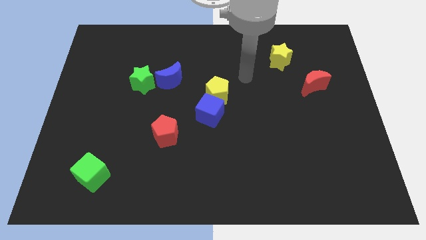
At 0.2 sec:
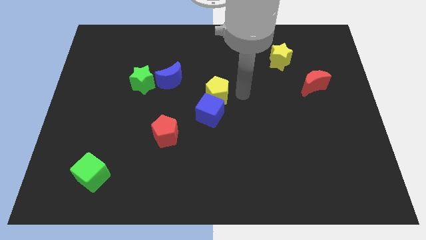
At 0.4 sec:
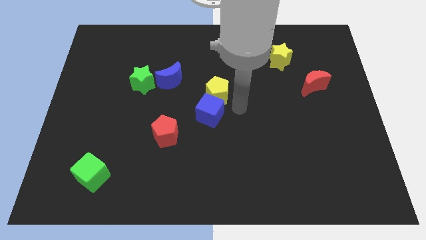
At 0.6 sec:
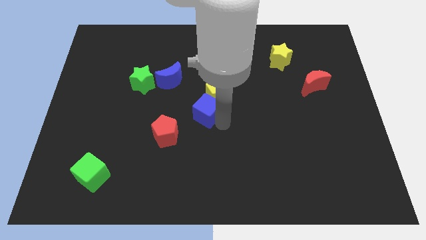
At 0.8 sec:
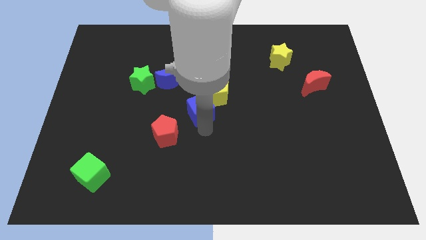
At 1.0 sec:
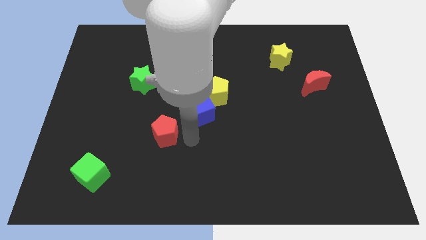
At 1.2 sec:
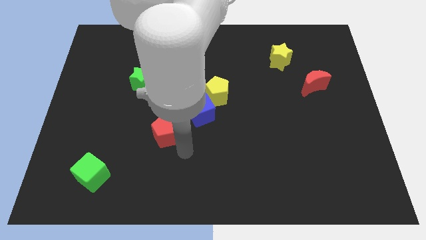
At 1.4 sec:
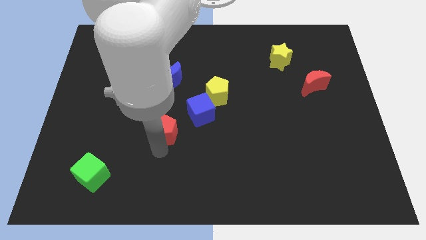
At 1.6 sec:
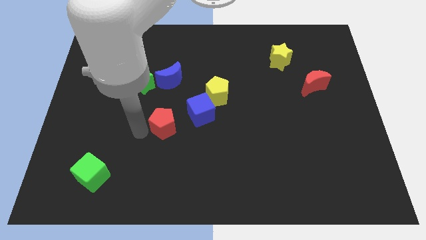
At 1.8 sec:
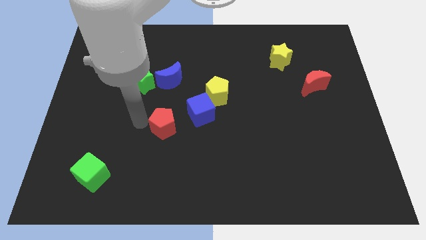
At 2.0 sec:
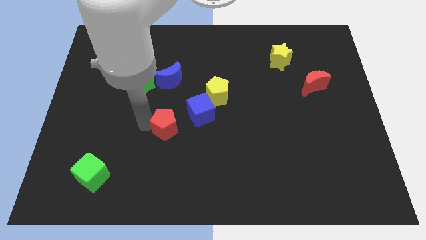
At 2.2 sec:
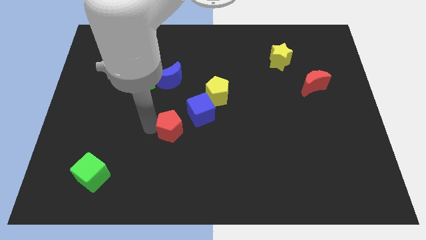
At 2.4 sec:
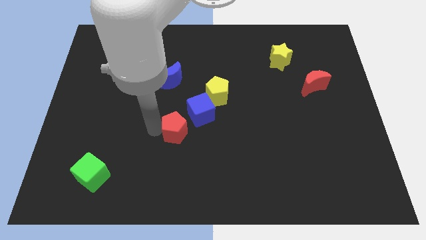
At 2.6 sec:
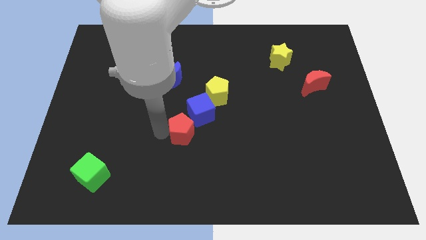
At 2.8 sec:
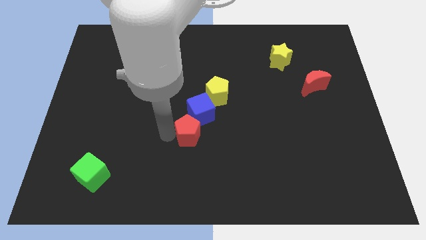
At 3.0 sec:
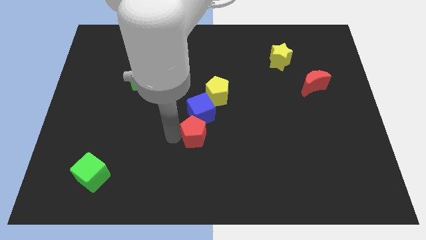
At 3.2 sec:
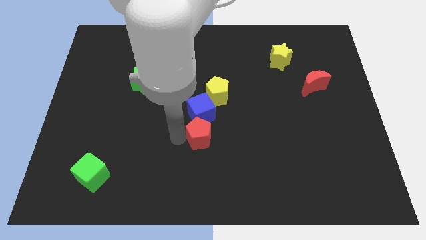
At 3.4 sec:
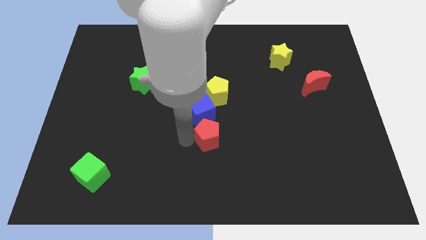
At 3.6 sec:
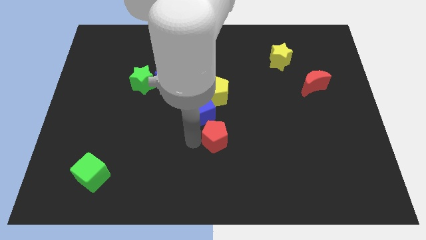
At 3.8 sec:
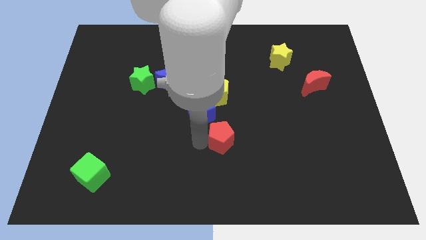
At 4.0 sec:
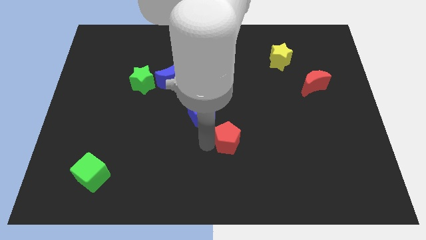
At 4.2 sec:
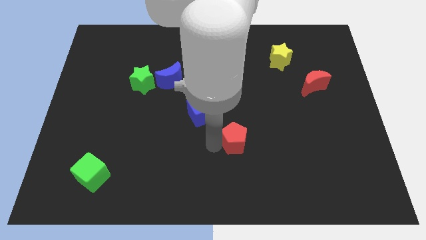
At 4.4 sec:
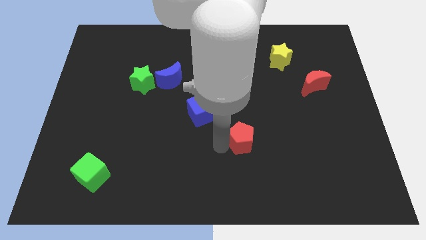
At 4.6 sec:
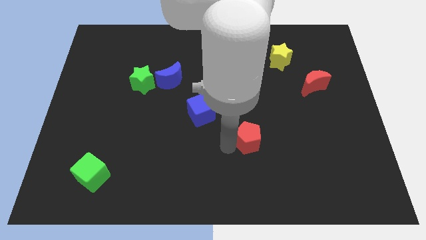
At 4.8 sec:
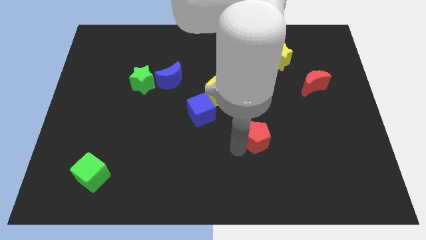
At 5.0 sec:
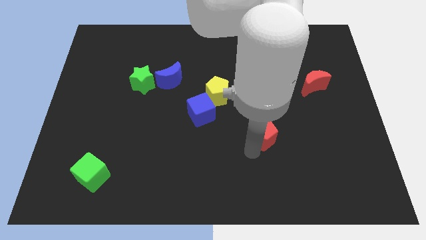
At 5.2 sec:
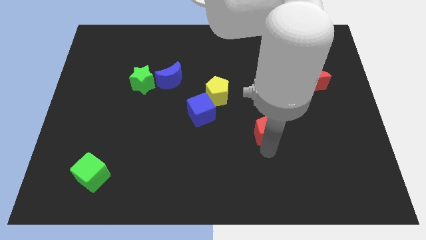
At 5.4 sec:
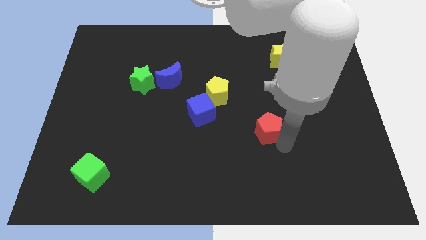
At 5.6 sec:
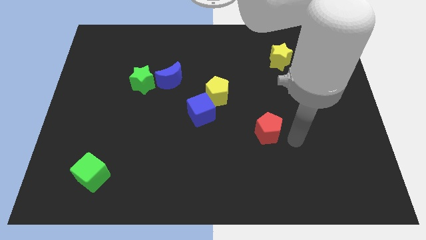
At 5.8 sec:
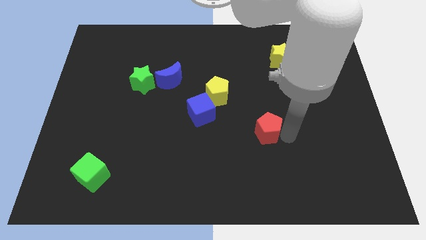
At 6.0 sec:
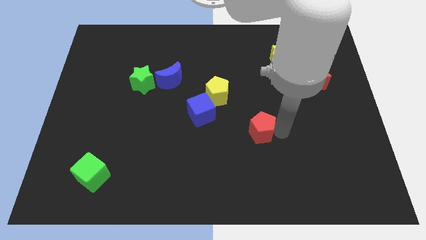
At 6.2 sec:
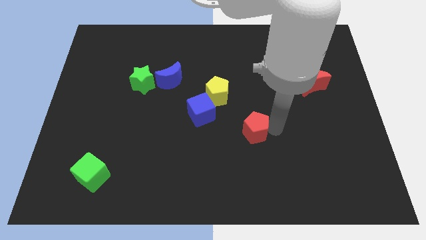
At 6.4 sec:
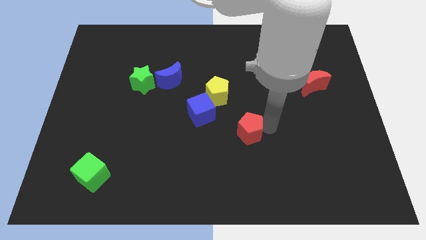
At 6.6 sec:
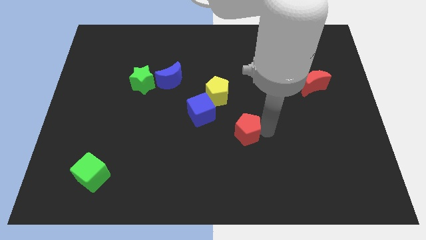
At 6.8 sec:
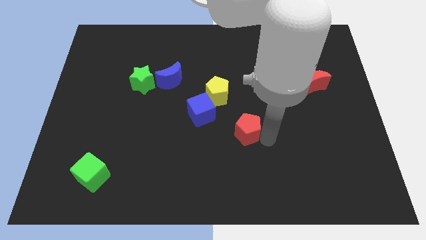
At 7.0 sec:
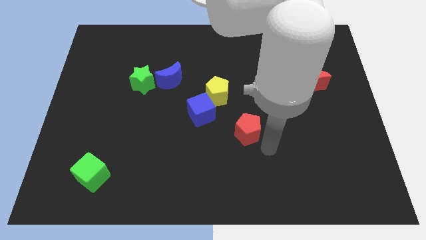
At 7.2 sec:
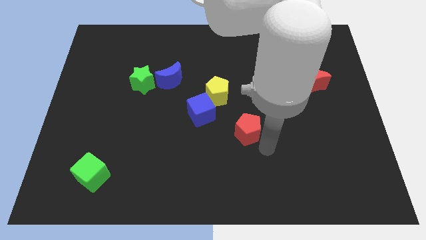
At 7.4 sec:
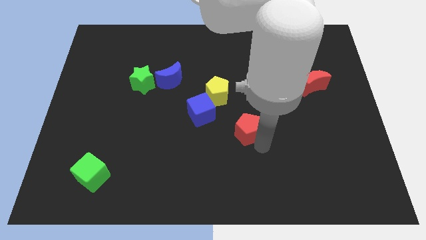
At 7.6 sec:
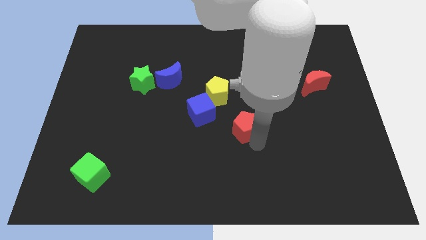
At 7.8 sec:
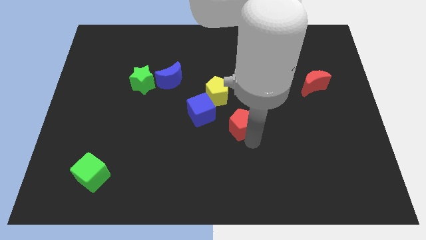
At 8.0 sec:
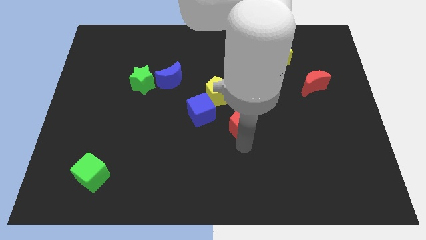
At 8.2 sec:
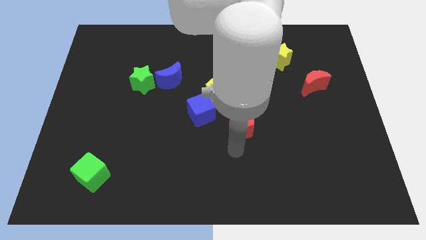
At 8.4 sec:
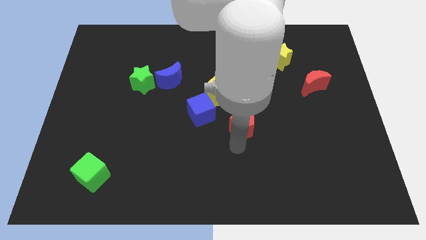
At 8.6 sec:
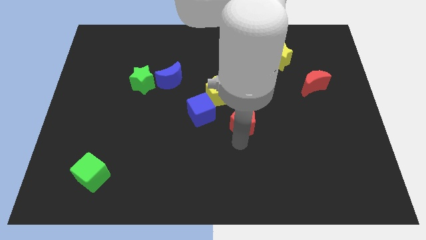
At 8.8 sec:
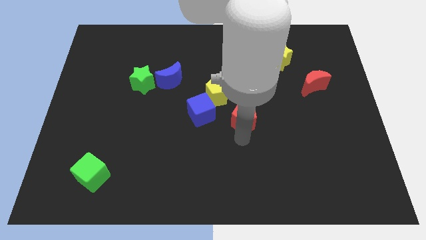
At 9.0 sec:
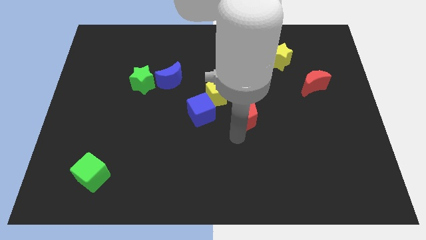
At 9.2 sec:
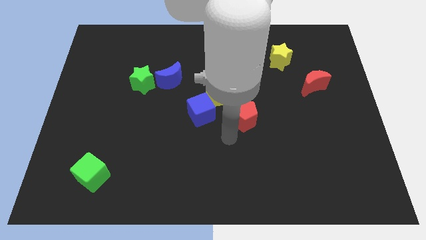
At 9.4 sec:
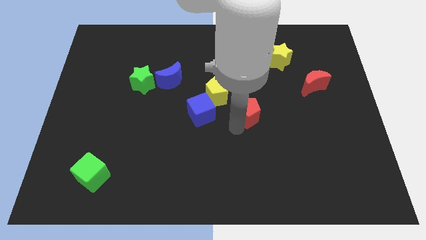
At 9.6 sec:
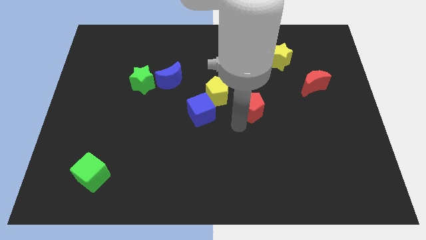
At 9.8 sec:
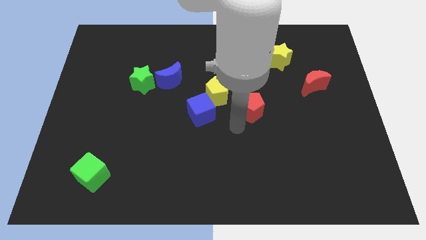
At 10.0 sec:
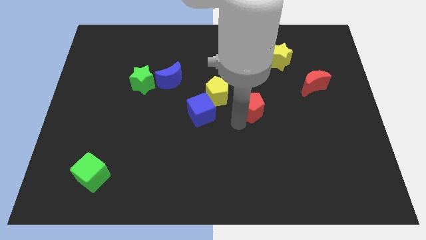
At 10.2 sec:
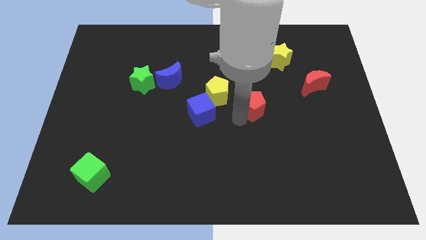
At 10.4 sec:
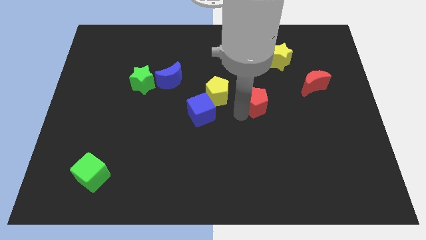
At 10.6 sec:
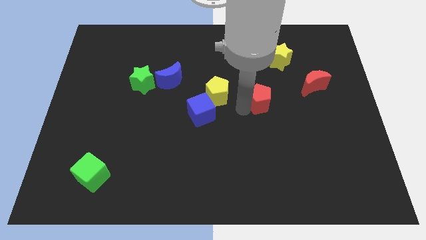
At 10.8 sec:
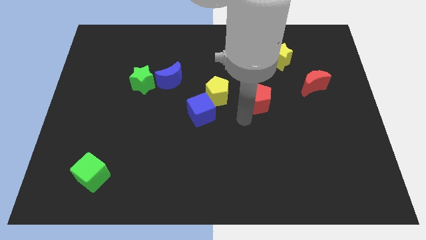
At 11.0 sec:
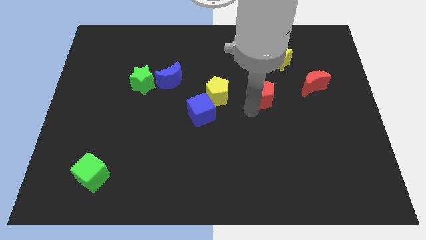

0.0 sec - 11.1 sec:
put the red pentagon just left of the red moon

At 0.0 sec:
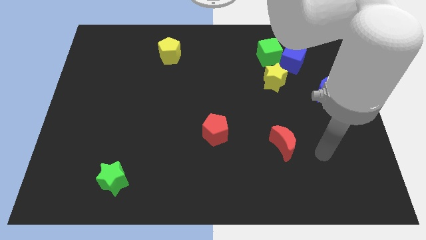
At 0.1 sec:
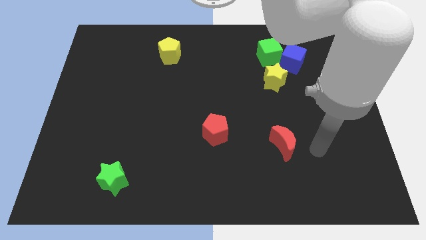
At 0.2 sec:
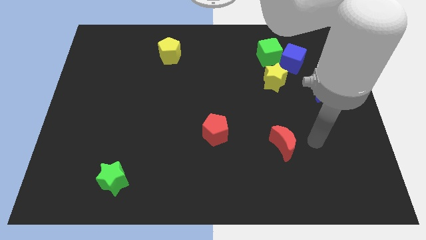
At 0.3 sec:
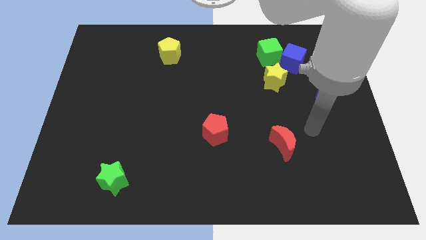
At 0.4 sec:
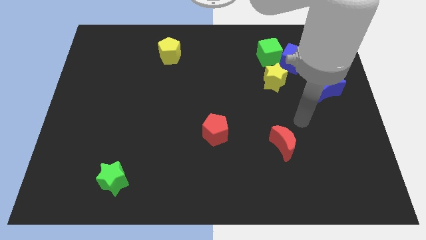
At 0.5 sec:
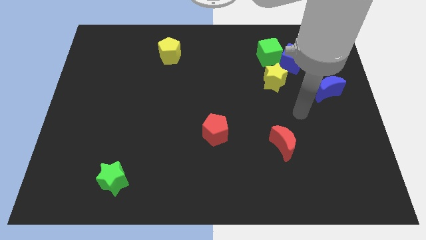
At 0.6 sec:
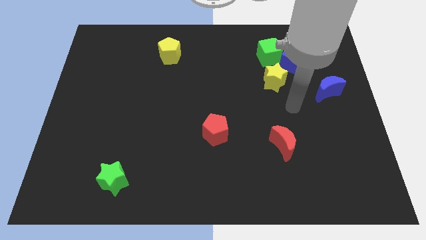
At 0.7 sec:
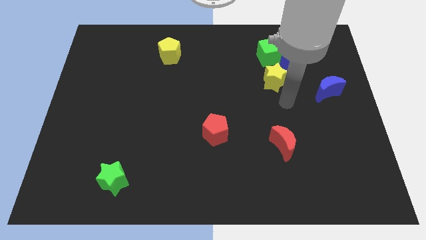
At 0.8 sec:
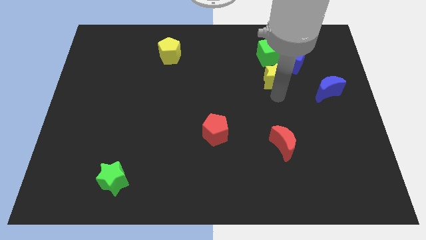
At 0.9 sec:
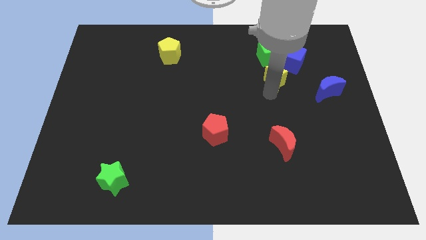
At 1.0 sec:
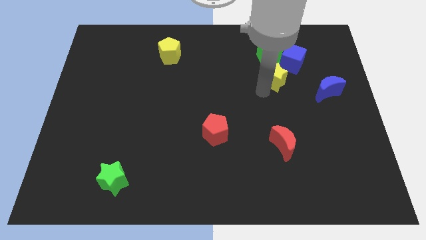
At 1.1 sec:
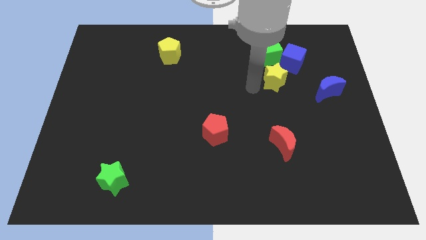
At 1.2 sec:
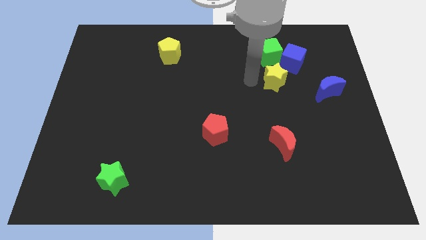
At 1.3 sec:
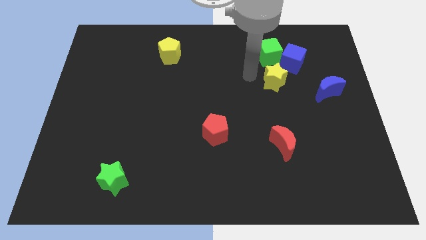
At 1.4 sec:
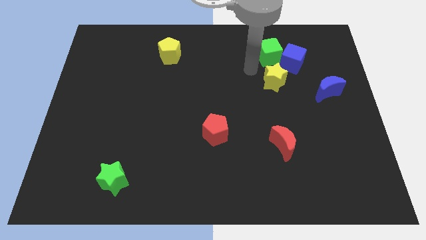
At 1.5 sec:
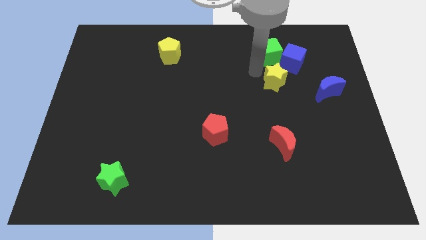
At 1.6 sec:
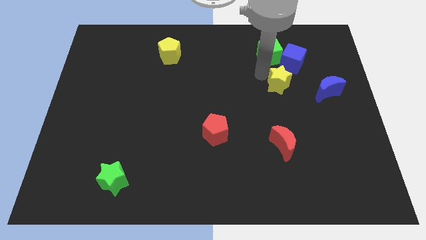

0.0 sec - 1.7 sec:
put the yellow star to the bottom of the blue cube
